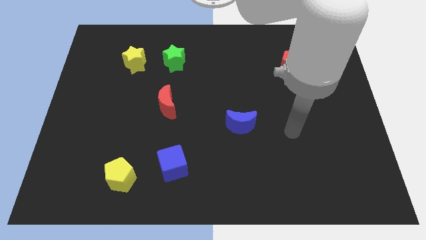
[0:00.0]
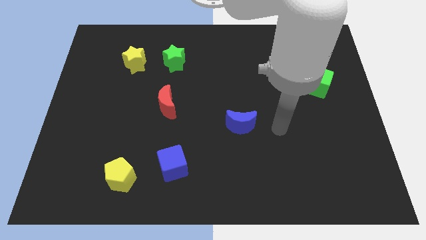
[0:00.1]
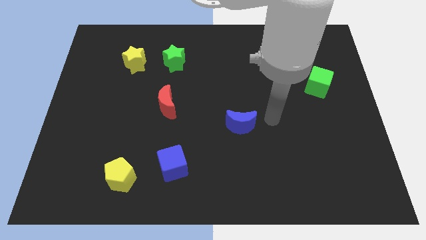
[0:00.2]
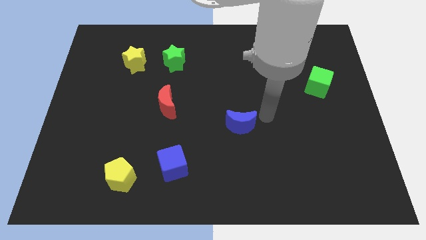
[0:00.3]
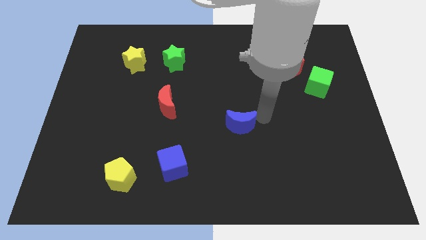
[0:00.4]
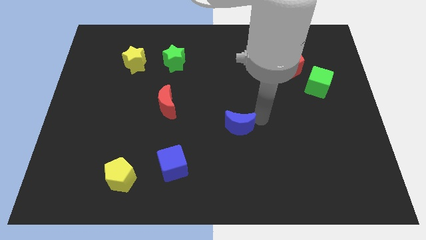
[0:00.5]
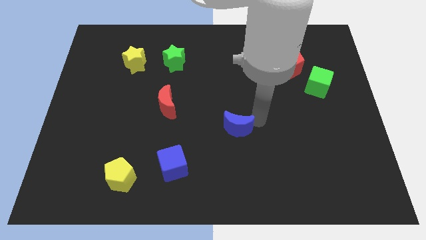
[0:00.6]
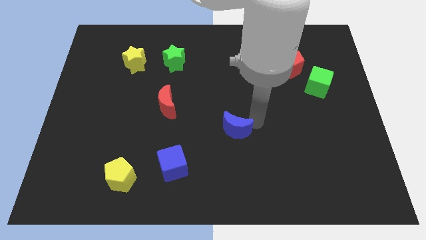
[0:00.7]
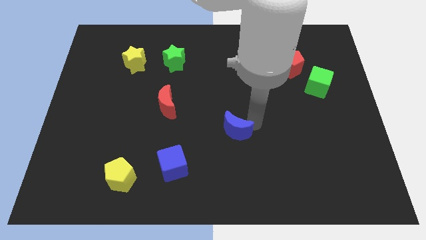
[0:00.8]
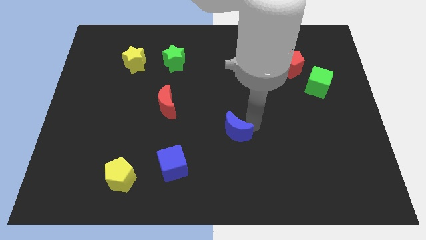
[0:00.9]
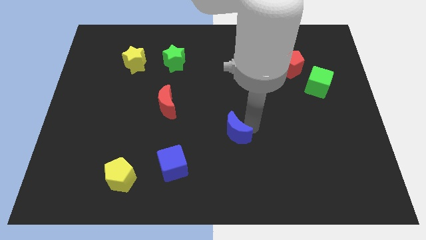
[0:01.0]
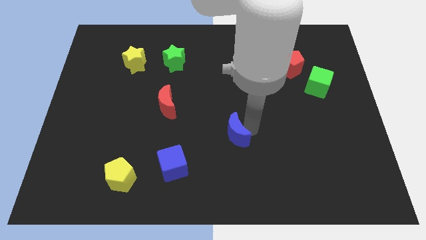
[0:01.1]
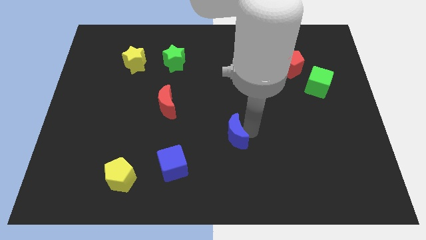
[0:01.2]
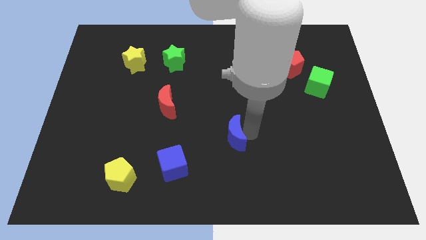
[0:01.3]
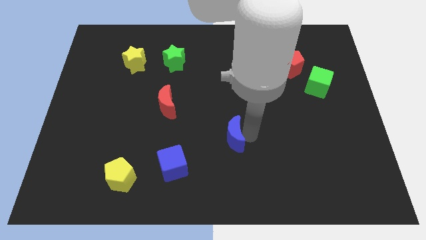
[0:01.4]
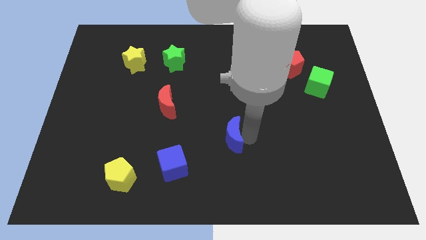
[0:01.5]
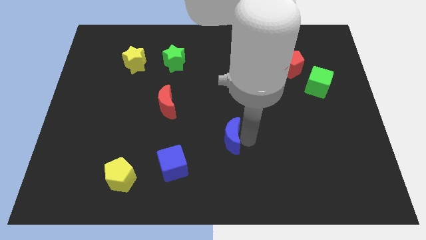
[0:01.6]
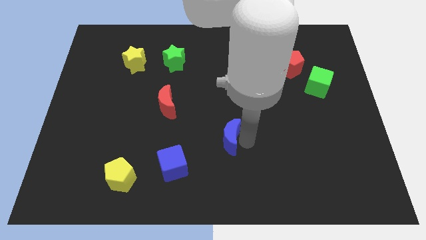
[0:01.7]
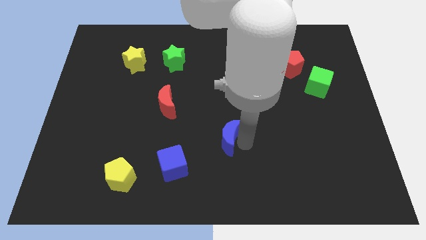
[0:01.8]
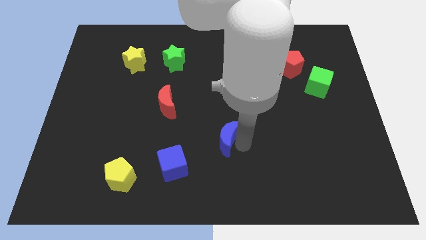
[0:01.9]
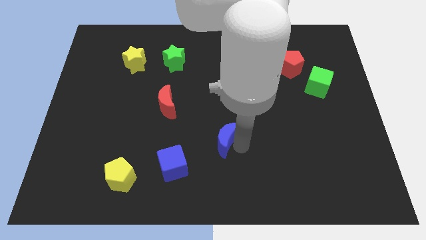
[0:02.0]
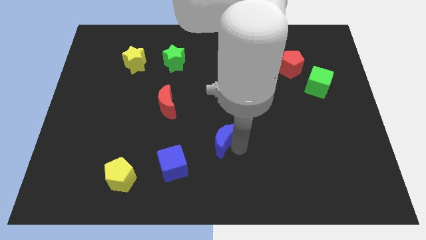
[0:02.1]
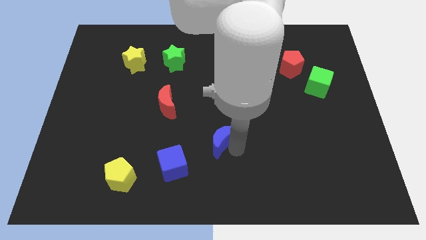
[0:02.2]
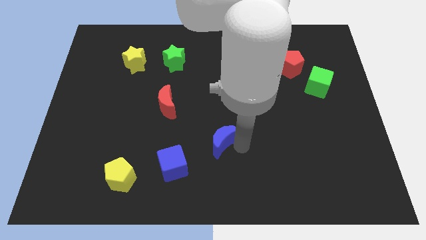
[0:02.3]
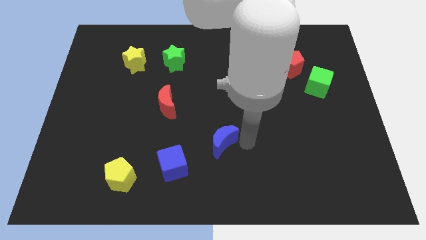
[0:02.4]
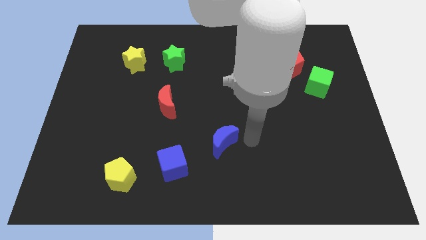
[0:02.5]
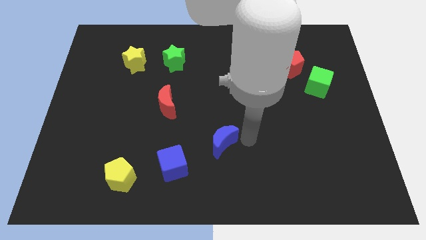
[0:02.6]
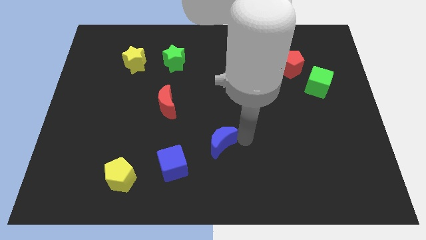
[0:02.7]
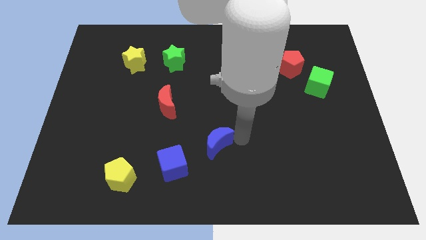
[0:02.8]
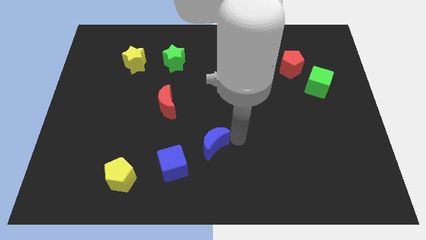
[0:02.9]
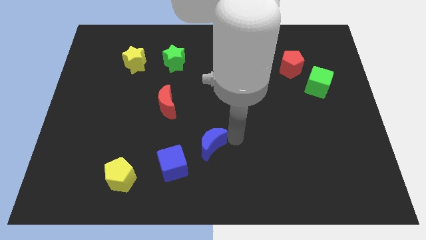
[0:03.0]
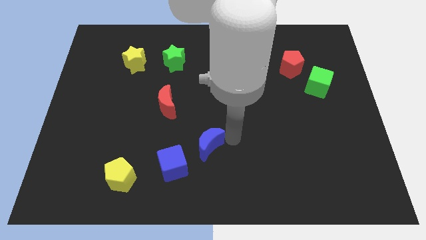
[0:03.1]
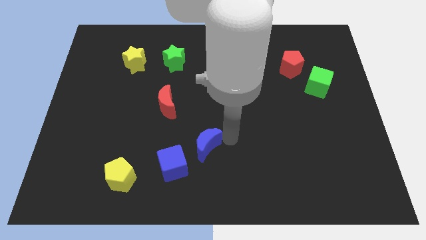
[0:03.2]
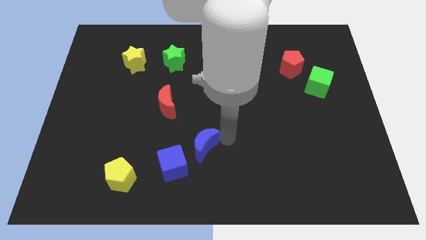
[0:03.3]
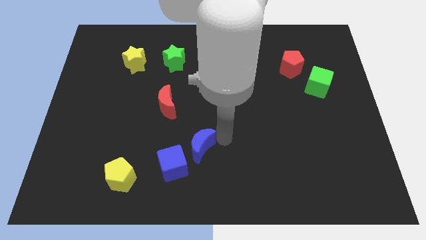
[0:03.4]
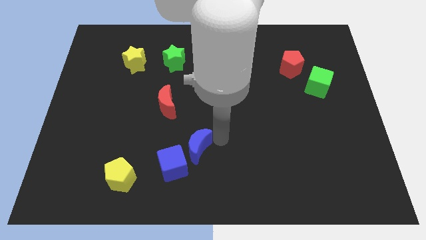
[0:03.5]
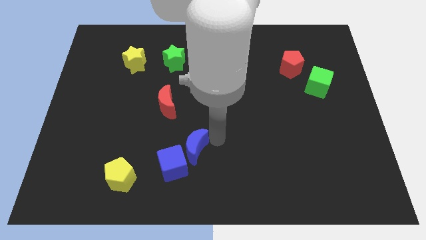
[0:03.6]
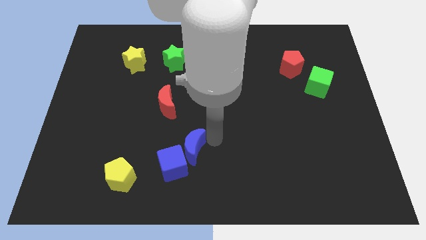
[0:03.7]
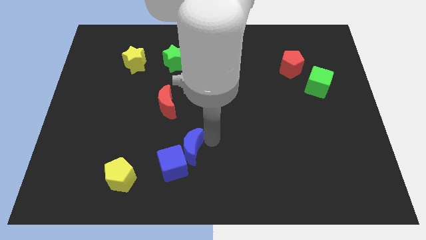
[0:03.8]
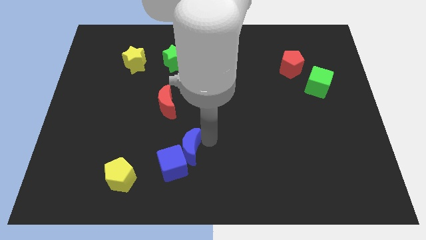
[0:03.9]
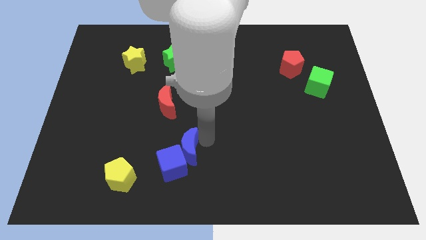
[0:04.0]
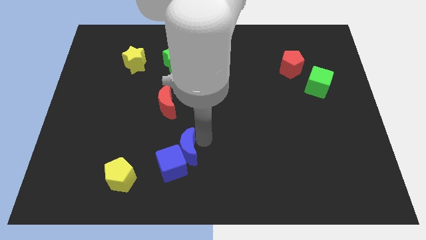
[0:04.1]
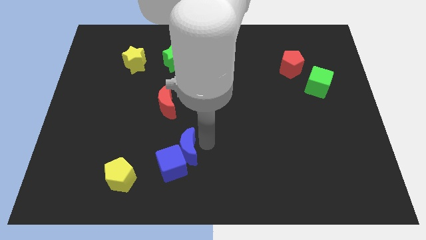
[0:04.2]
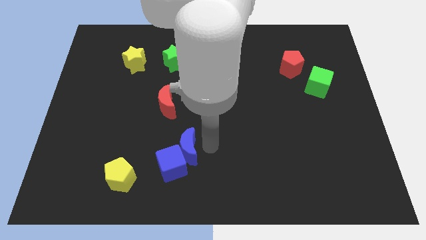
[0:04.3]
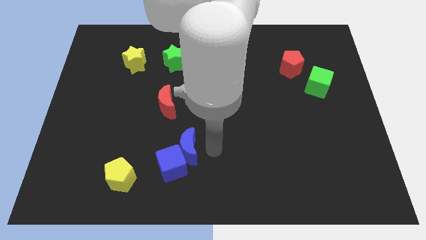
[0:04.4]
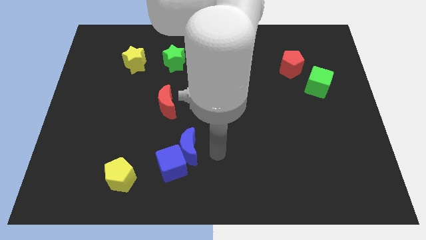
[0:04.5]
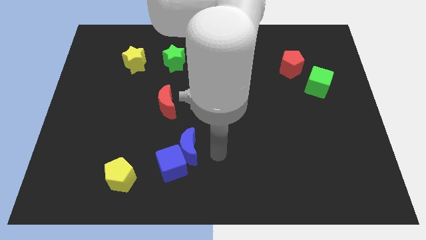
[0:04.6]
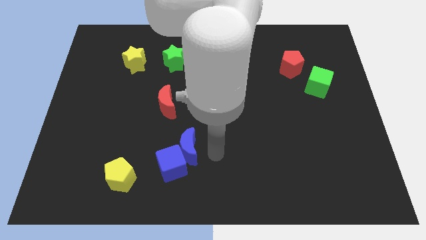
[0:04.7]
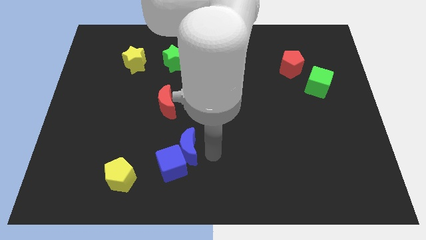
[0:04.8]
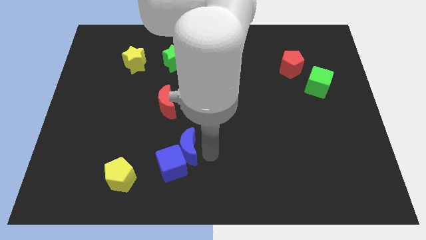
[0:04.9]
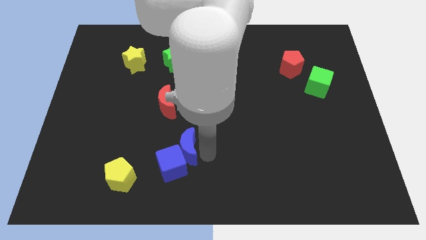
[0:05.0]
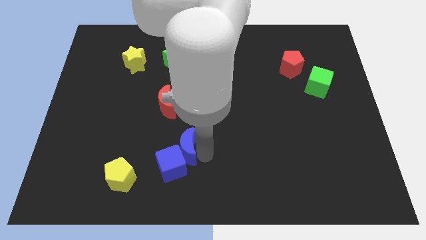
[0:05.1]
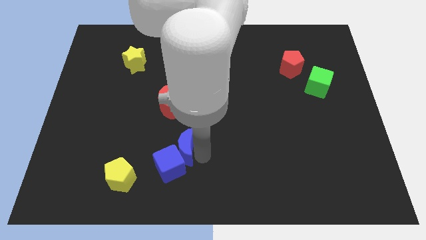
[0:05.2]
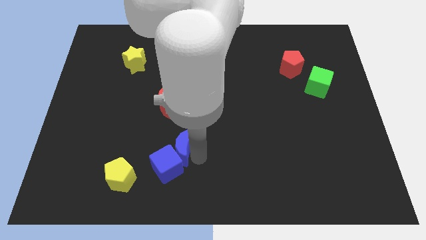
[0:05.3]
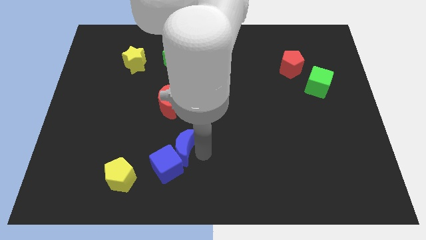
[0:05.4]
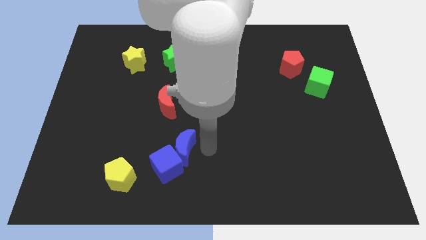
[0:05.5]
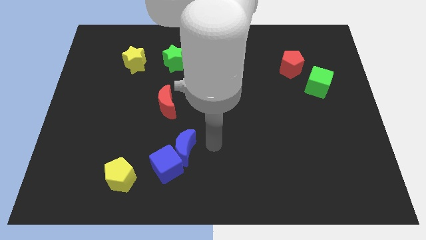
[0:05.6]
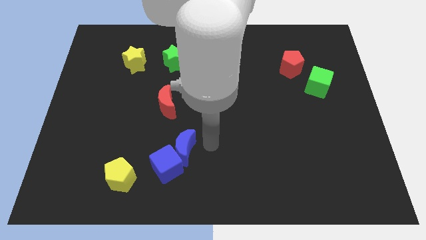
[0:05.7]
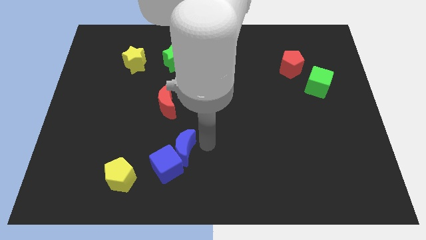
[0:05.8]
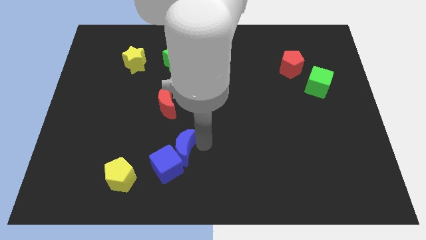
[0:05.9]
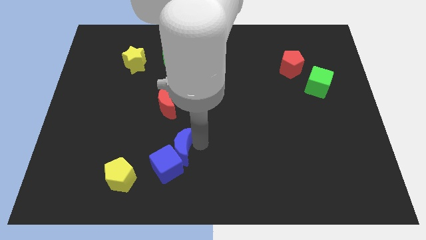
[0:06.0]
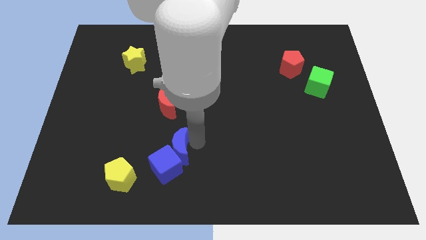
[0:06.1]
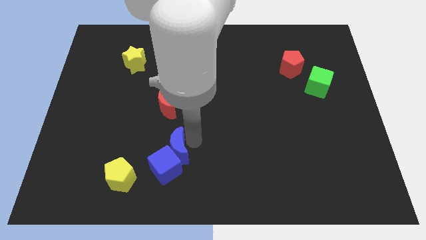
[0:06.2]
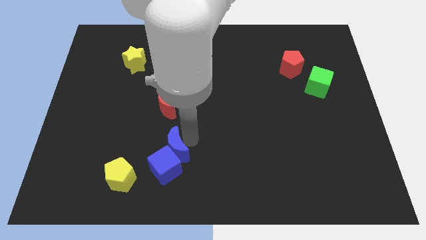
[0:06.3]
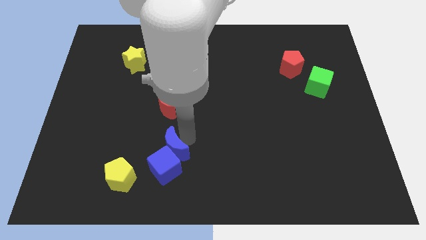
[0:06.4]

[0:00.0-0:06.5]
slide the blue moon to the top right of the yellow pentagon
